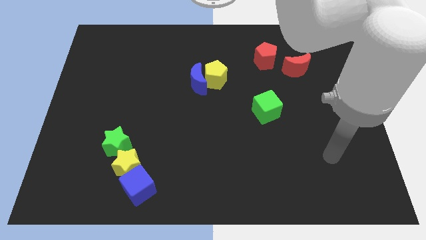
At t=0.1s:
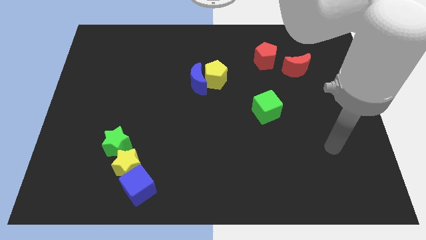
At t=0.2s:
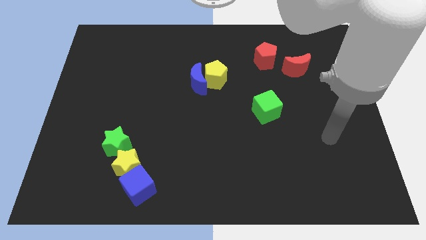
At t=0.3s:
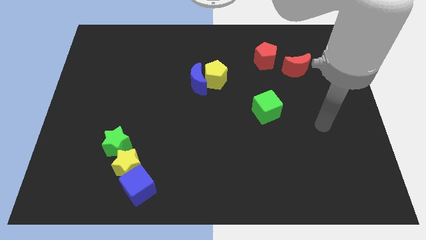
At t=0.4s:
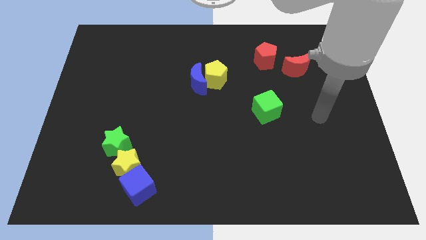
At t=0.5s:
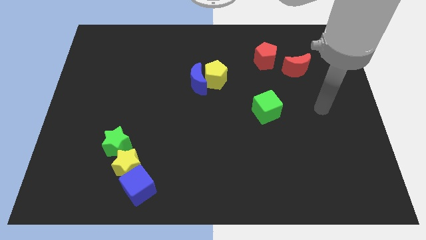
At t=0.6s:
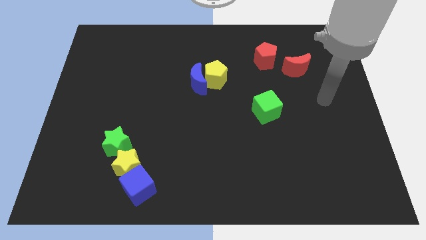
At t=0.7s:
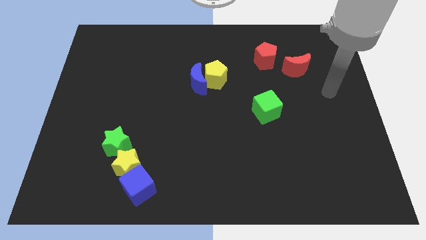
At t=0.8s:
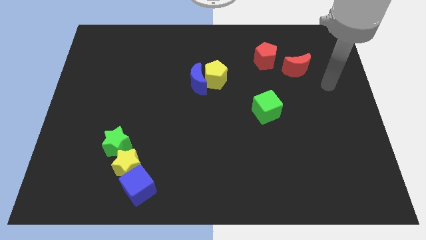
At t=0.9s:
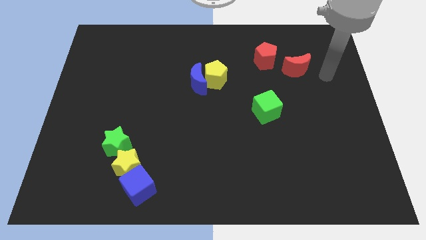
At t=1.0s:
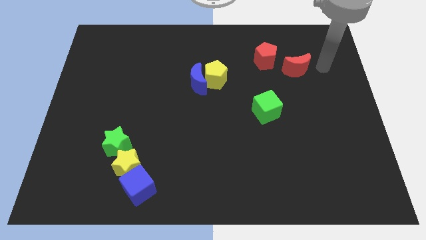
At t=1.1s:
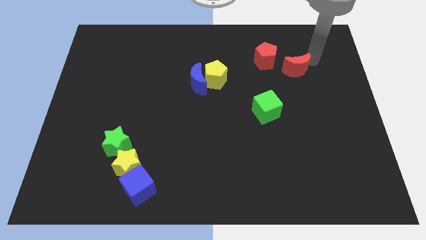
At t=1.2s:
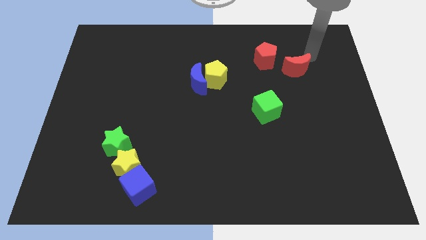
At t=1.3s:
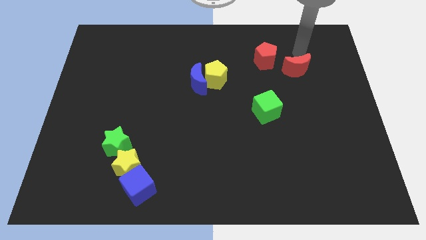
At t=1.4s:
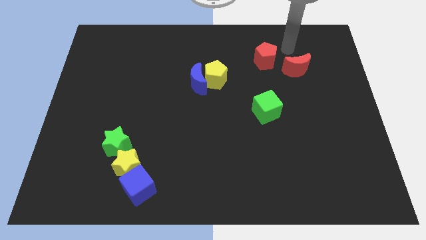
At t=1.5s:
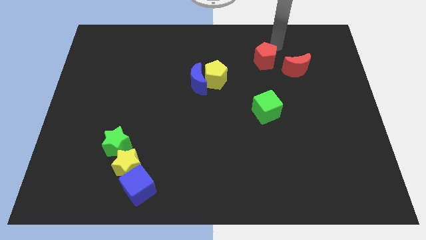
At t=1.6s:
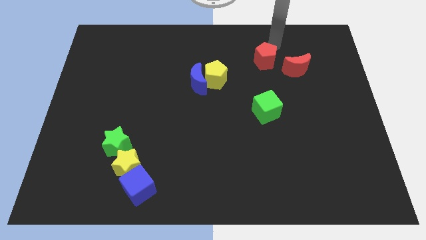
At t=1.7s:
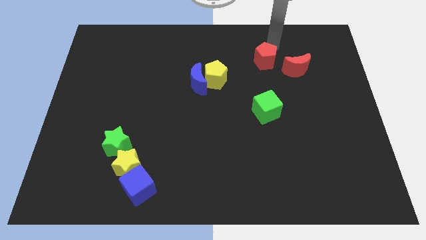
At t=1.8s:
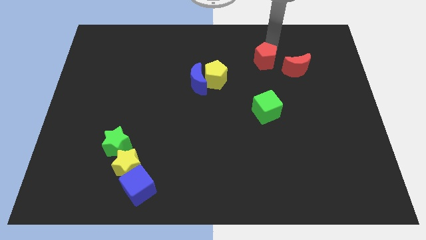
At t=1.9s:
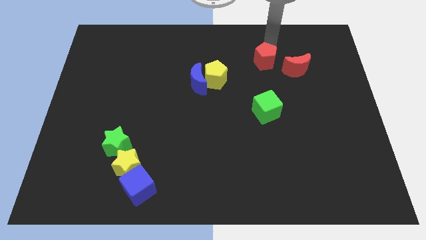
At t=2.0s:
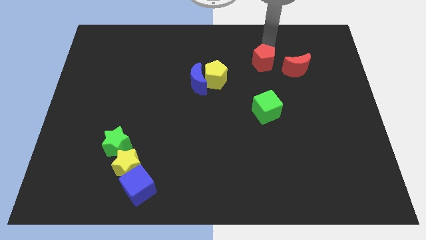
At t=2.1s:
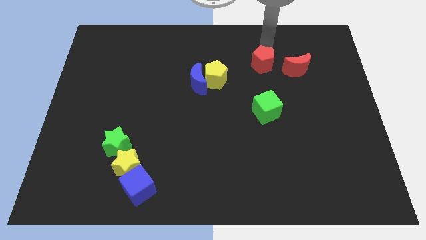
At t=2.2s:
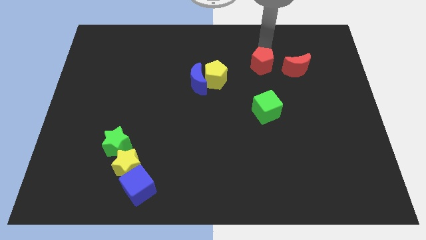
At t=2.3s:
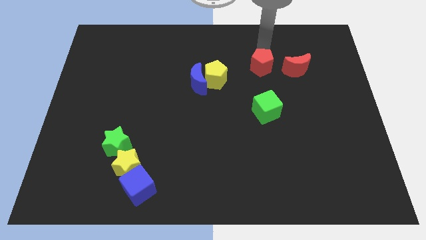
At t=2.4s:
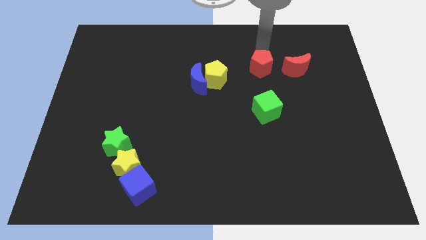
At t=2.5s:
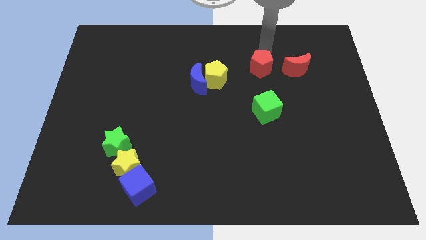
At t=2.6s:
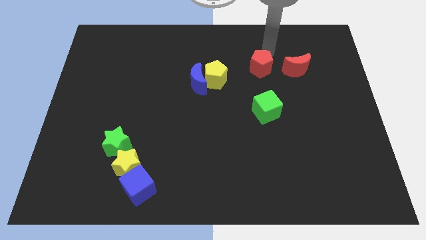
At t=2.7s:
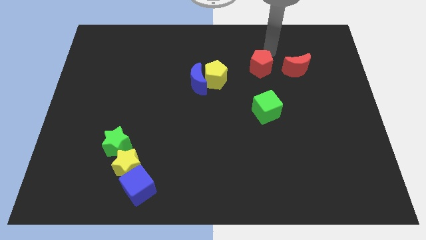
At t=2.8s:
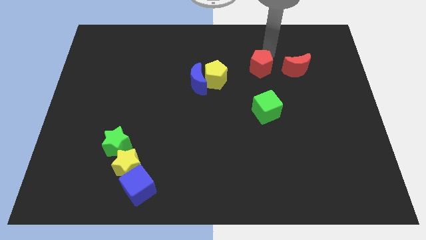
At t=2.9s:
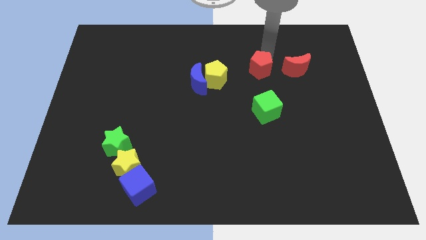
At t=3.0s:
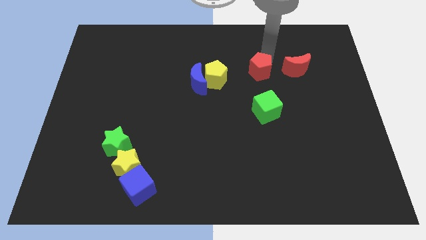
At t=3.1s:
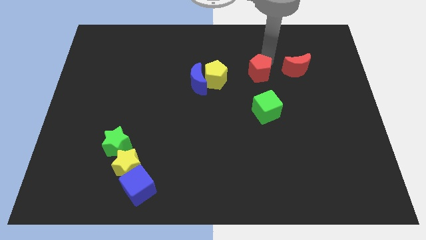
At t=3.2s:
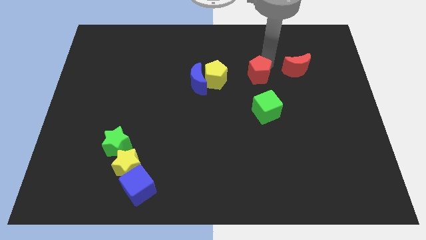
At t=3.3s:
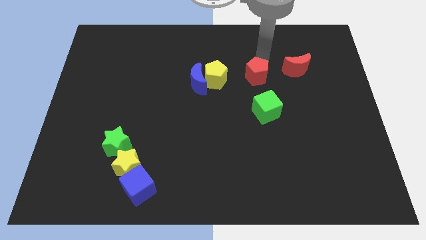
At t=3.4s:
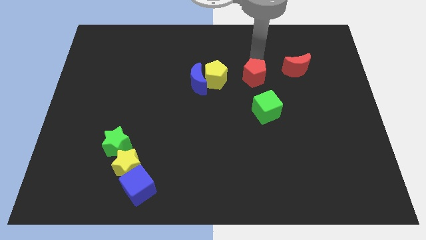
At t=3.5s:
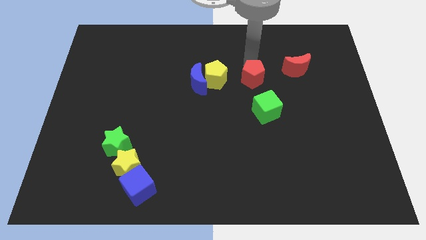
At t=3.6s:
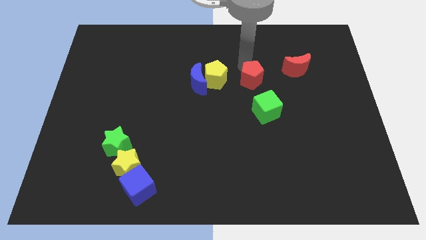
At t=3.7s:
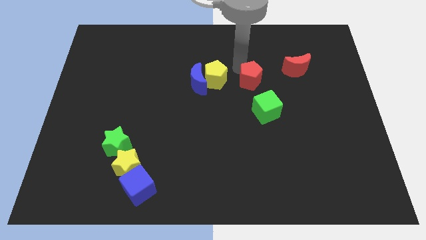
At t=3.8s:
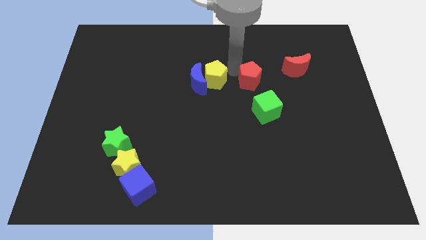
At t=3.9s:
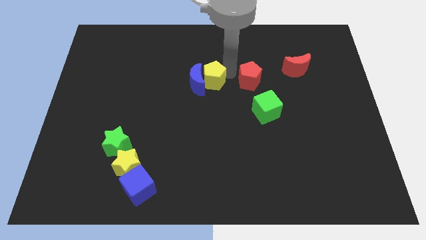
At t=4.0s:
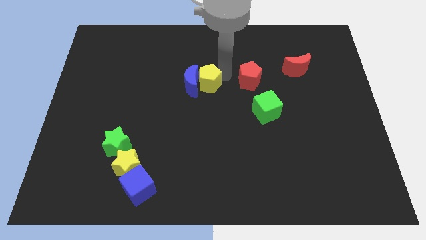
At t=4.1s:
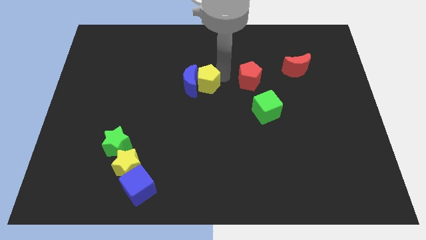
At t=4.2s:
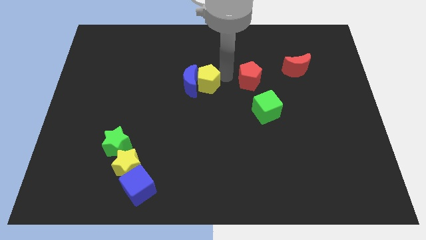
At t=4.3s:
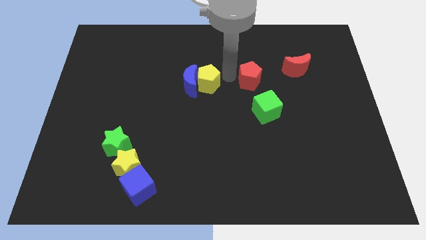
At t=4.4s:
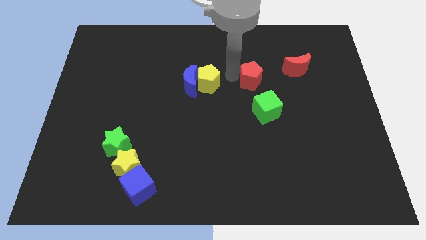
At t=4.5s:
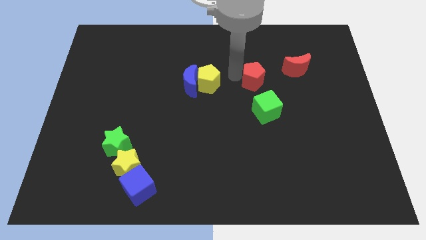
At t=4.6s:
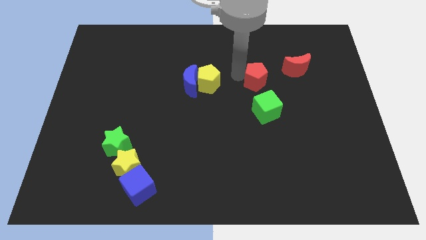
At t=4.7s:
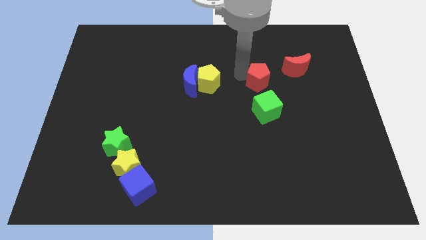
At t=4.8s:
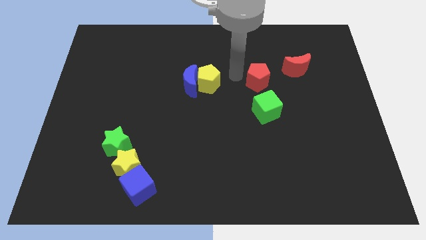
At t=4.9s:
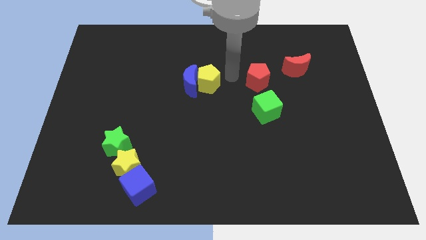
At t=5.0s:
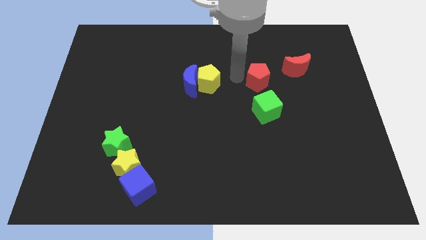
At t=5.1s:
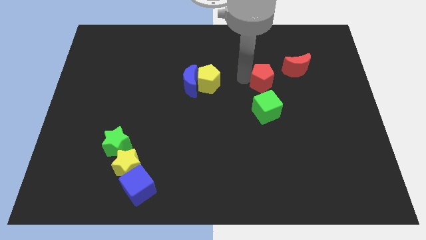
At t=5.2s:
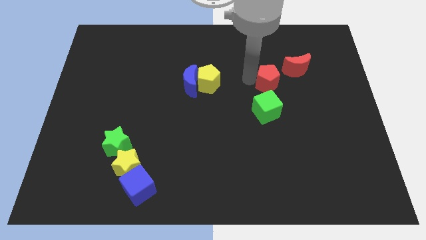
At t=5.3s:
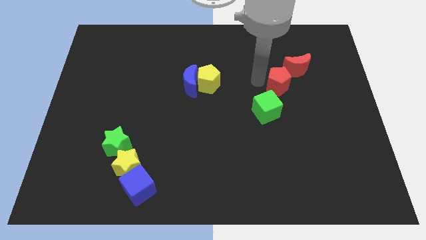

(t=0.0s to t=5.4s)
slightly push the red pentagon down and right diagonally

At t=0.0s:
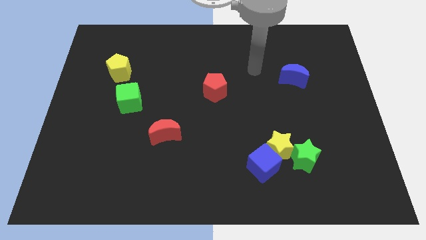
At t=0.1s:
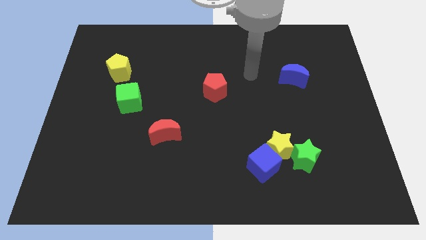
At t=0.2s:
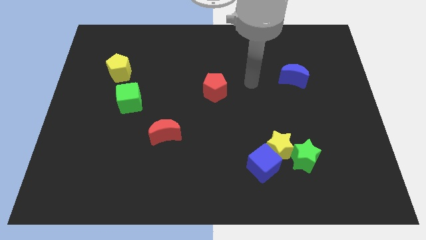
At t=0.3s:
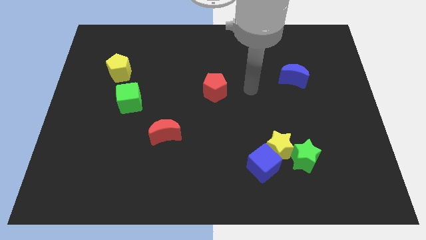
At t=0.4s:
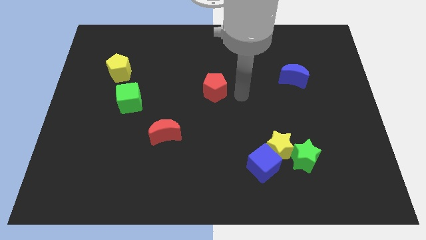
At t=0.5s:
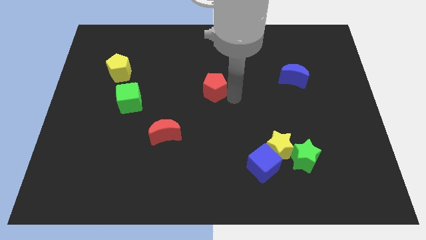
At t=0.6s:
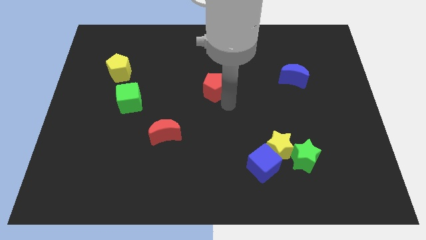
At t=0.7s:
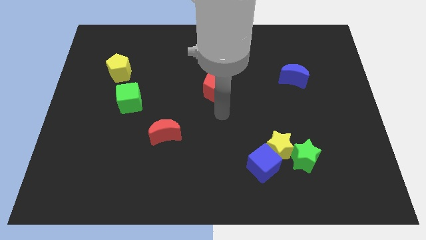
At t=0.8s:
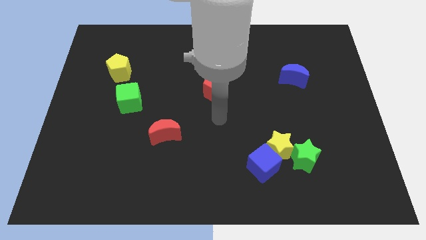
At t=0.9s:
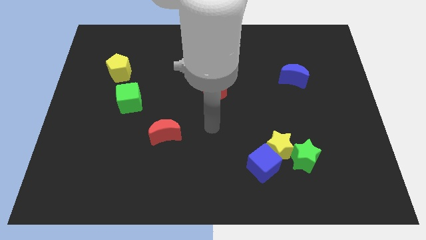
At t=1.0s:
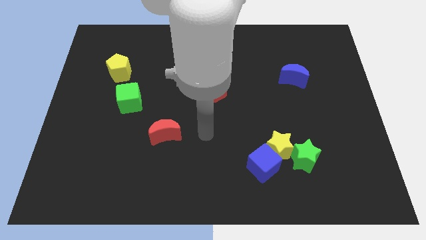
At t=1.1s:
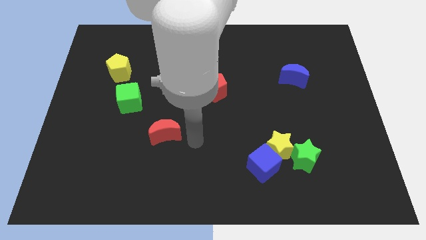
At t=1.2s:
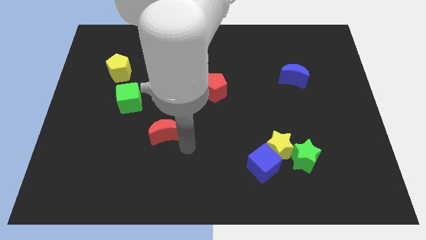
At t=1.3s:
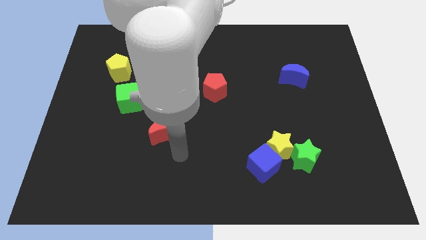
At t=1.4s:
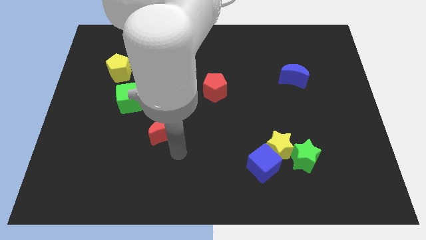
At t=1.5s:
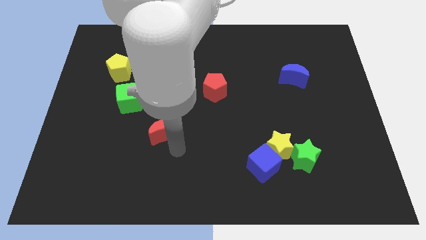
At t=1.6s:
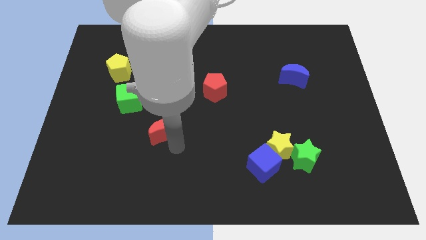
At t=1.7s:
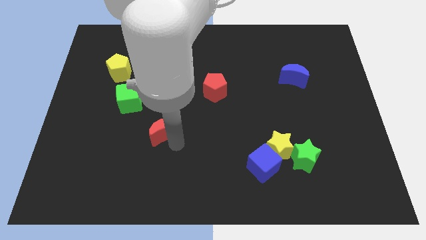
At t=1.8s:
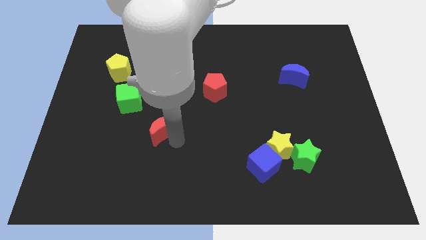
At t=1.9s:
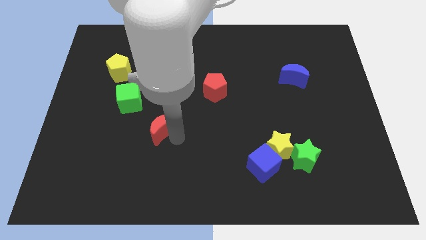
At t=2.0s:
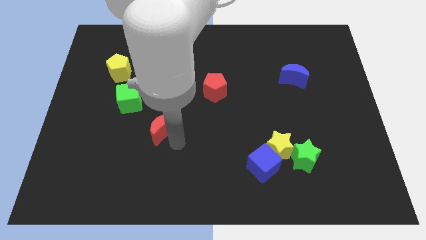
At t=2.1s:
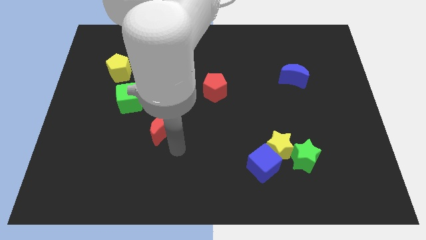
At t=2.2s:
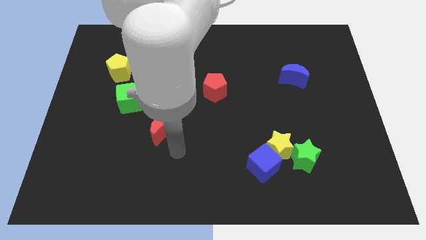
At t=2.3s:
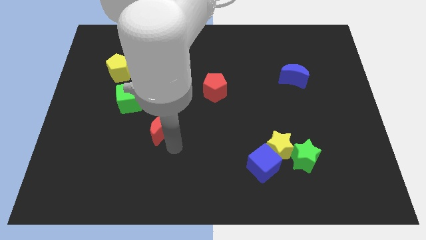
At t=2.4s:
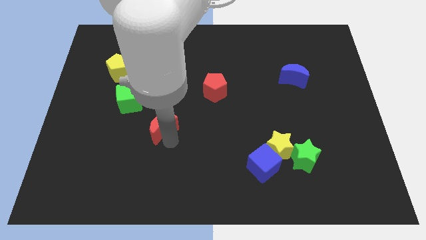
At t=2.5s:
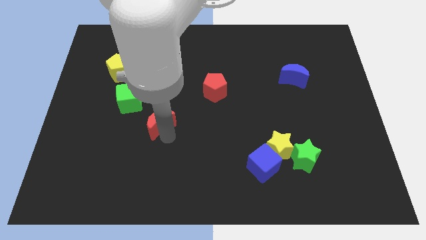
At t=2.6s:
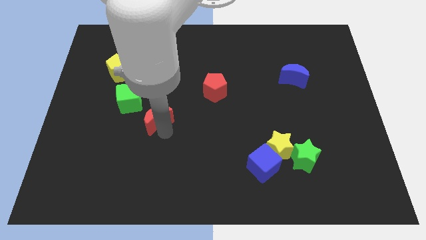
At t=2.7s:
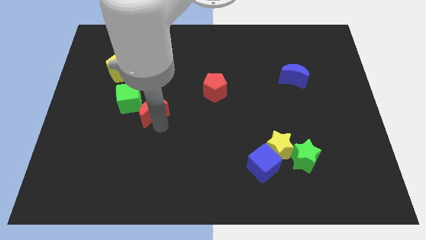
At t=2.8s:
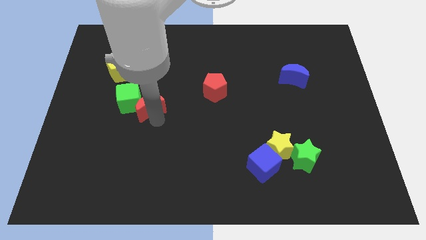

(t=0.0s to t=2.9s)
push the red moon a little up and then left
